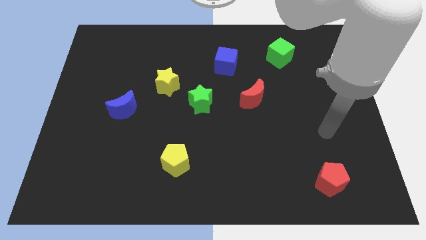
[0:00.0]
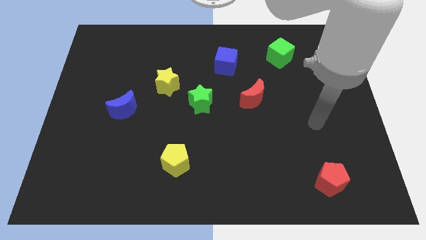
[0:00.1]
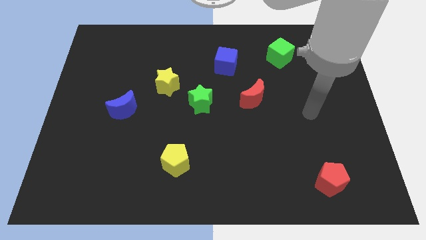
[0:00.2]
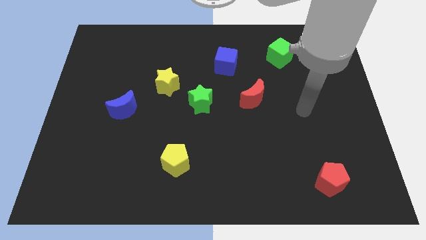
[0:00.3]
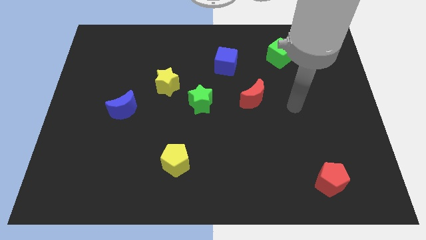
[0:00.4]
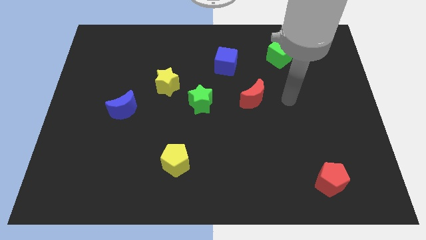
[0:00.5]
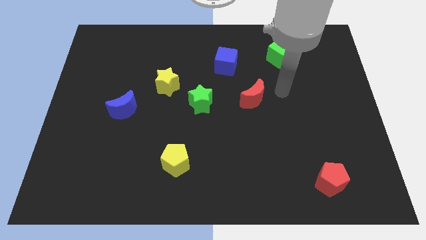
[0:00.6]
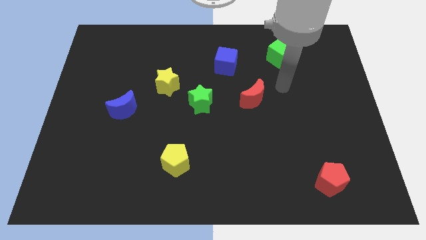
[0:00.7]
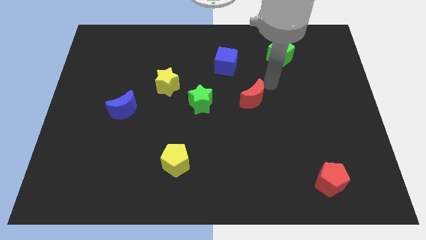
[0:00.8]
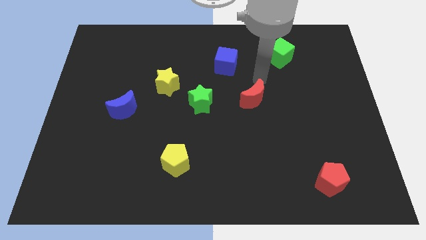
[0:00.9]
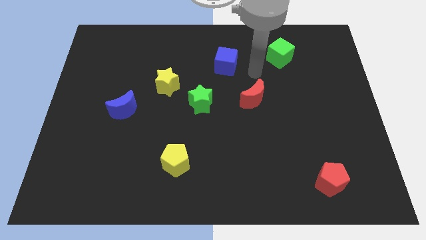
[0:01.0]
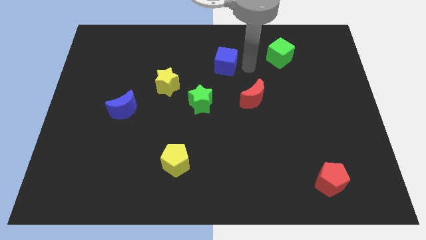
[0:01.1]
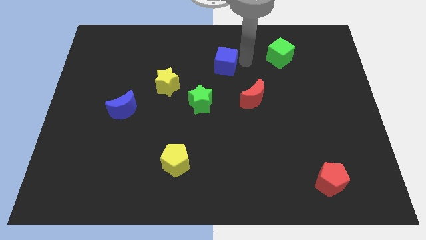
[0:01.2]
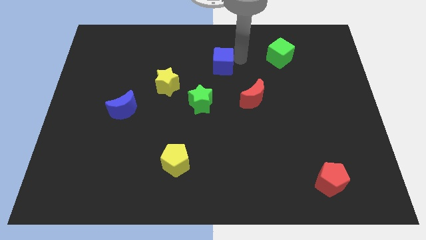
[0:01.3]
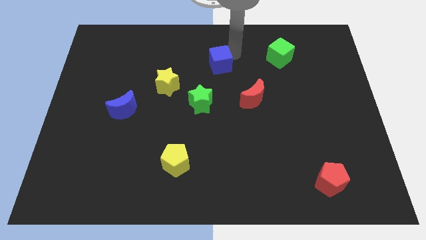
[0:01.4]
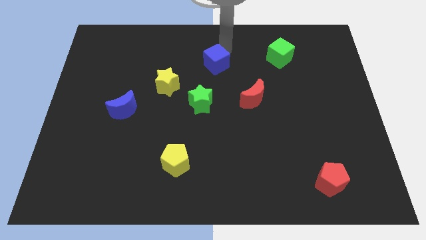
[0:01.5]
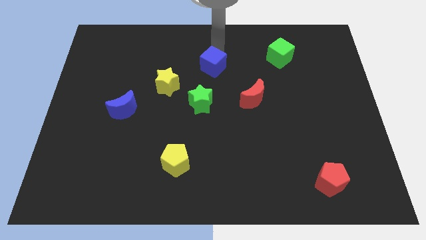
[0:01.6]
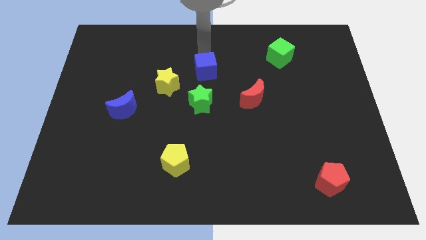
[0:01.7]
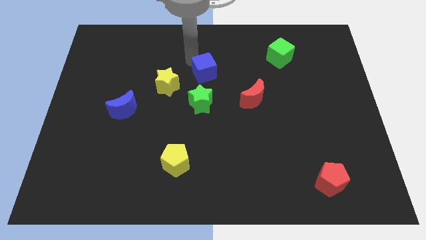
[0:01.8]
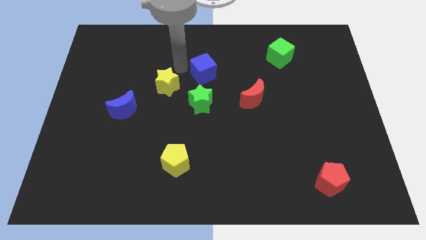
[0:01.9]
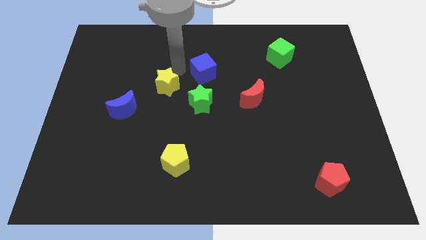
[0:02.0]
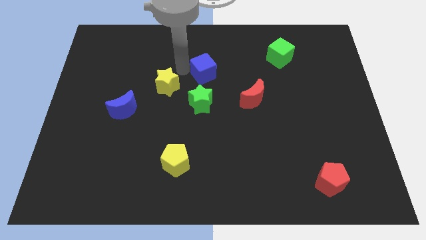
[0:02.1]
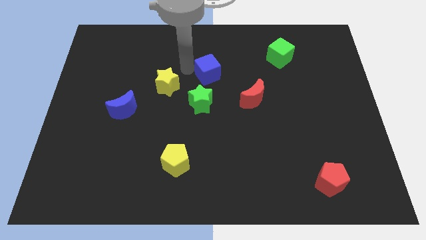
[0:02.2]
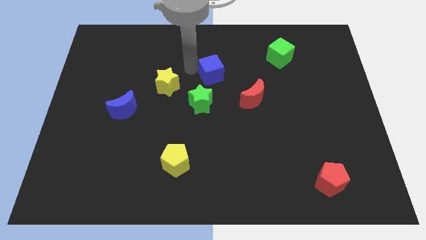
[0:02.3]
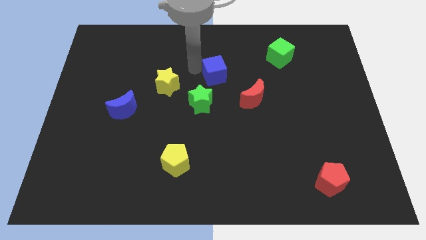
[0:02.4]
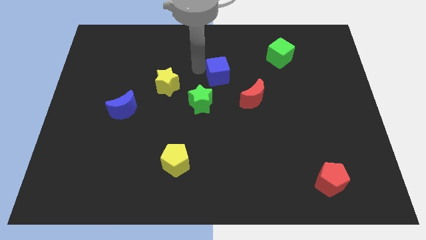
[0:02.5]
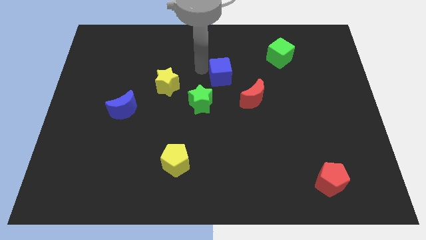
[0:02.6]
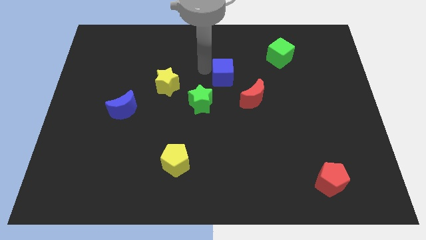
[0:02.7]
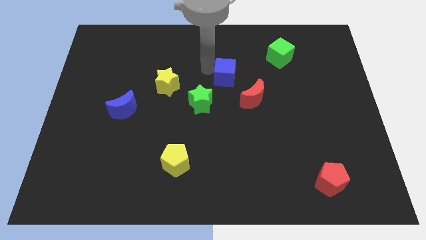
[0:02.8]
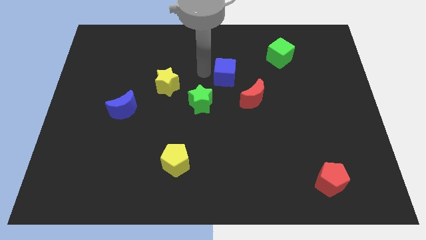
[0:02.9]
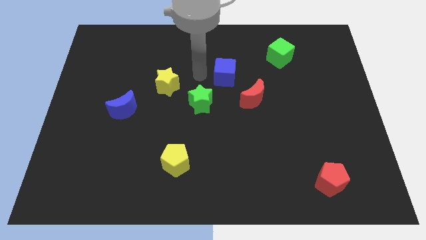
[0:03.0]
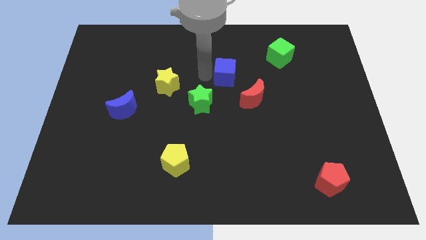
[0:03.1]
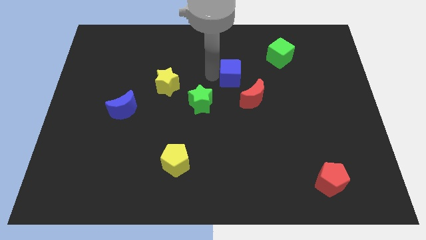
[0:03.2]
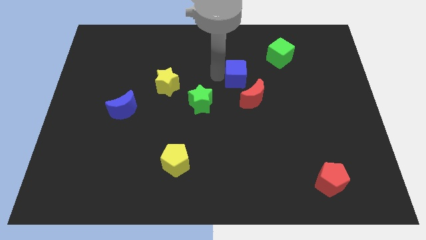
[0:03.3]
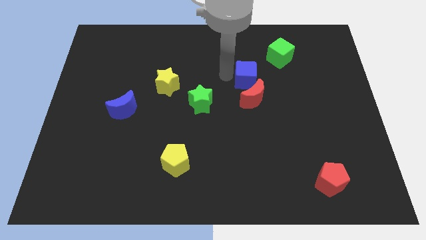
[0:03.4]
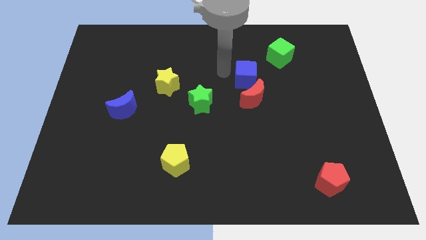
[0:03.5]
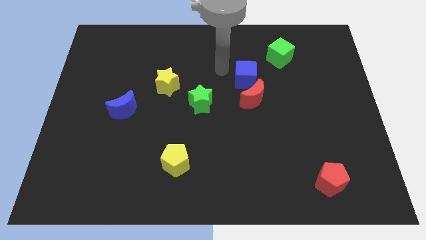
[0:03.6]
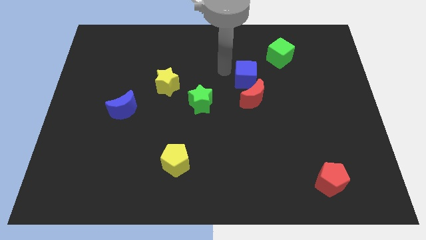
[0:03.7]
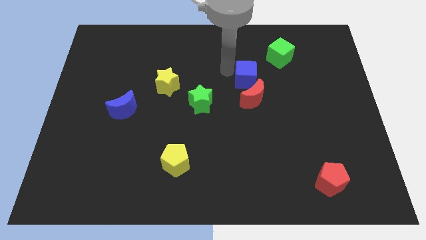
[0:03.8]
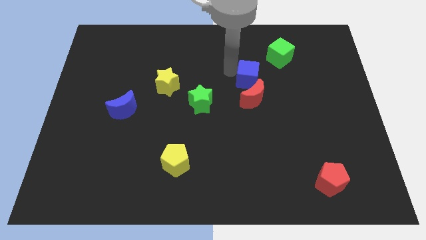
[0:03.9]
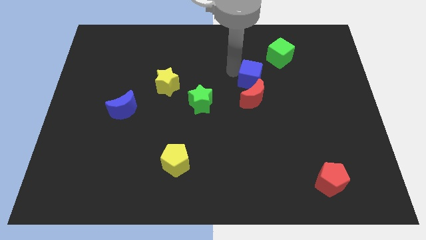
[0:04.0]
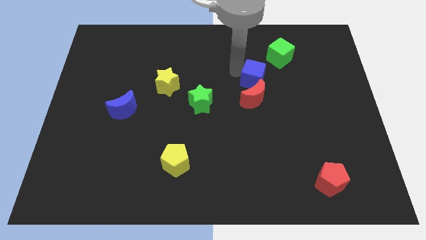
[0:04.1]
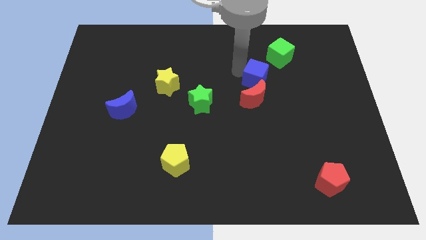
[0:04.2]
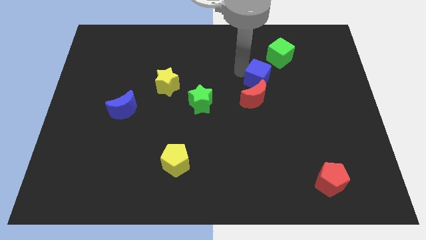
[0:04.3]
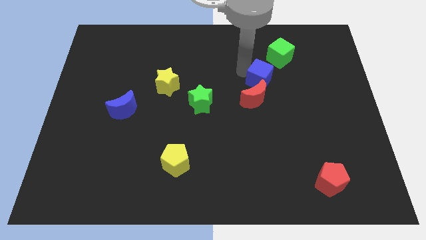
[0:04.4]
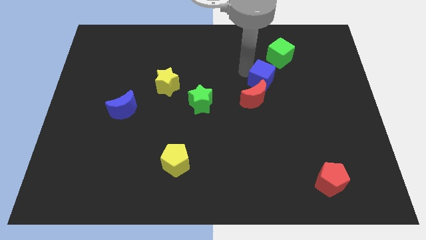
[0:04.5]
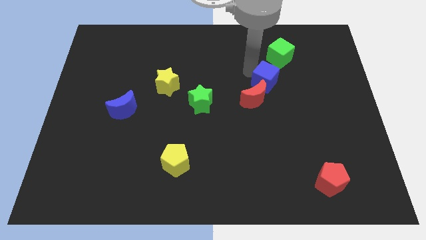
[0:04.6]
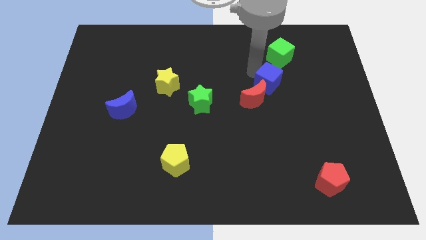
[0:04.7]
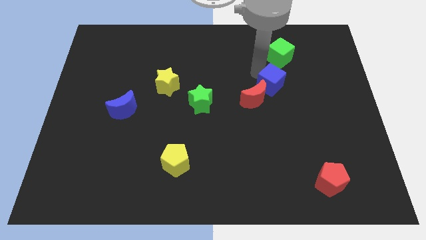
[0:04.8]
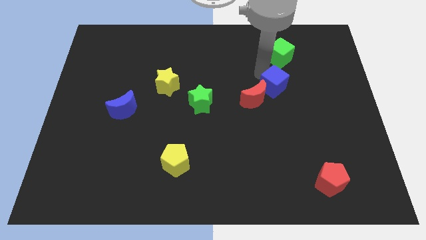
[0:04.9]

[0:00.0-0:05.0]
slide the blue cube to the right of the red moon

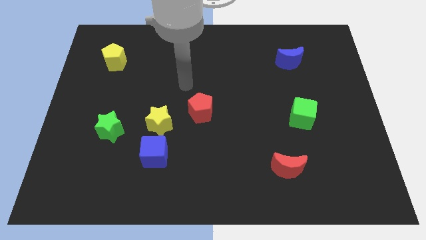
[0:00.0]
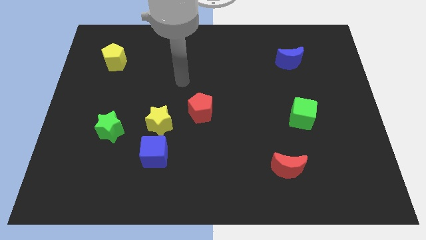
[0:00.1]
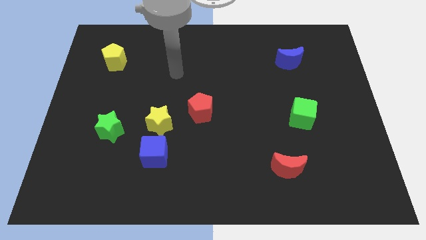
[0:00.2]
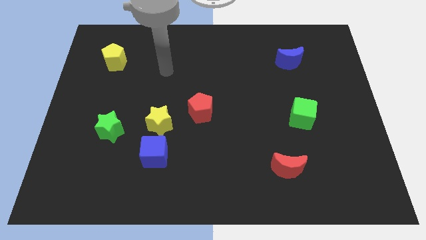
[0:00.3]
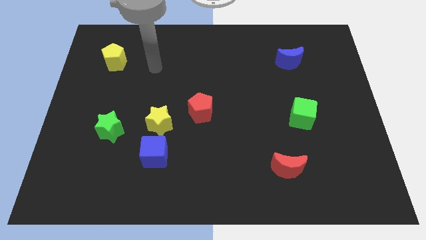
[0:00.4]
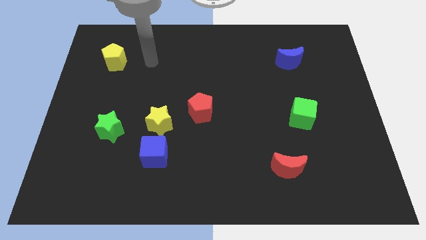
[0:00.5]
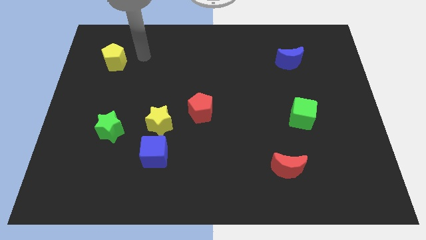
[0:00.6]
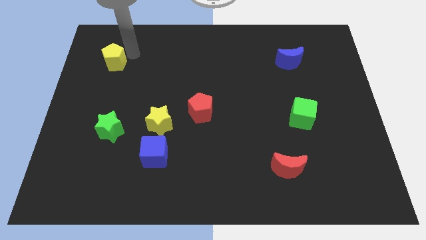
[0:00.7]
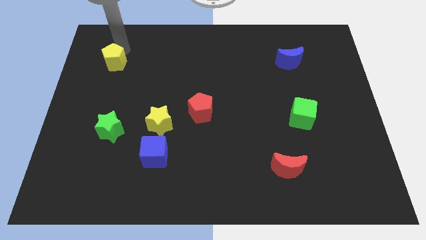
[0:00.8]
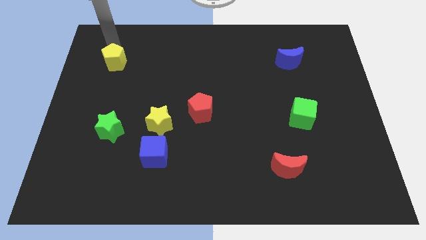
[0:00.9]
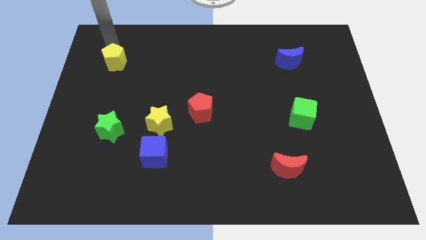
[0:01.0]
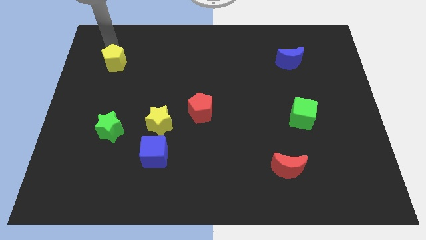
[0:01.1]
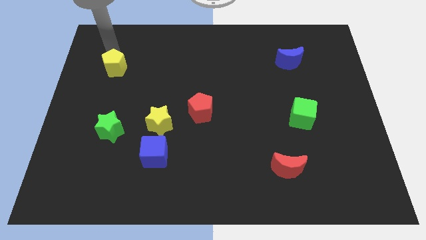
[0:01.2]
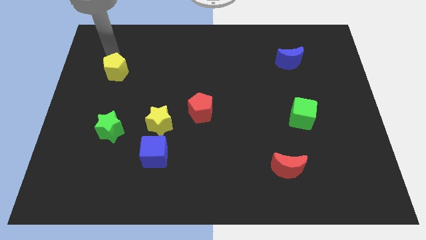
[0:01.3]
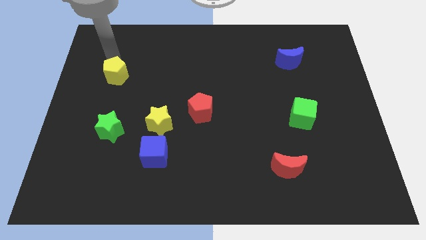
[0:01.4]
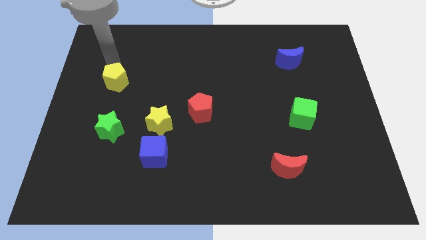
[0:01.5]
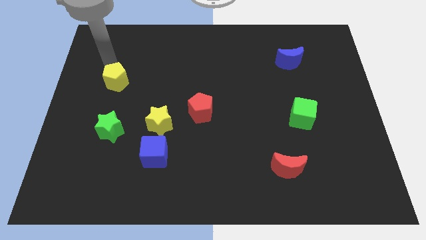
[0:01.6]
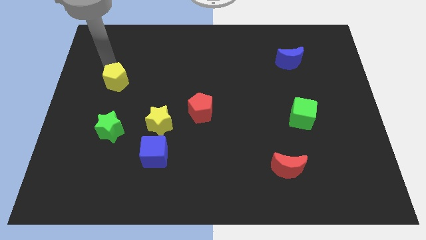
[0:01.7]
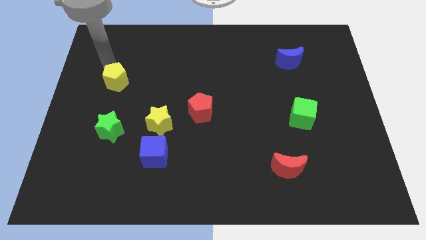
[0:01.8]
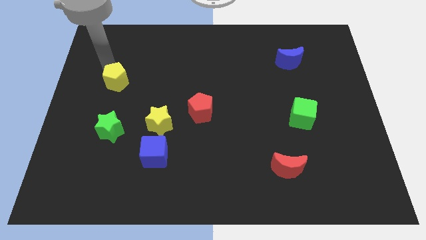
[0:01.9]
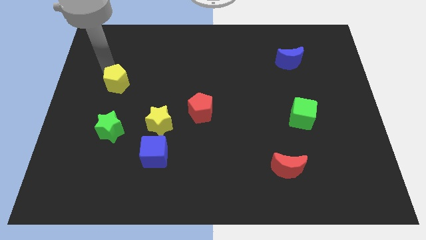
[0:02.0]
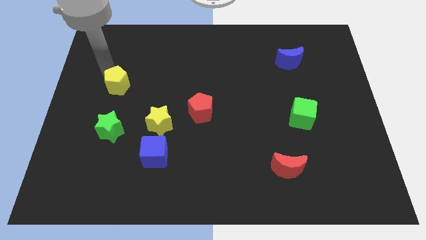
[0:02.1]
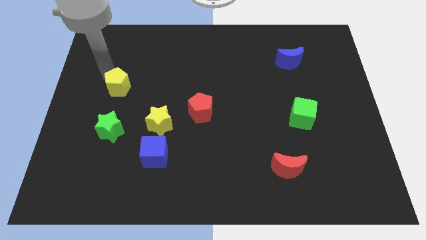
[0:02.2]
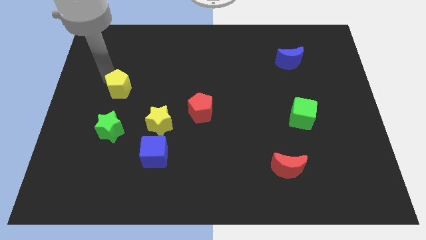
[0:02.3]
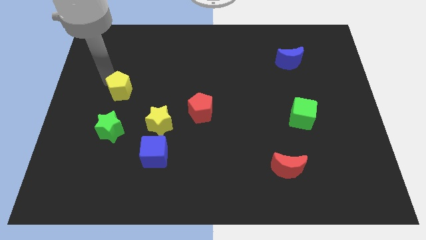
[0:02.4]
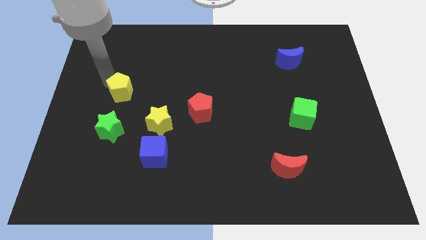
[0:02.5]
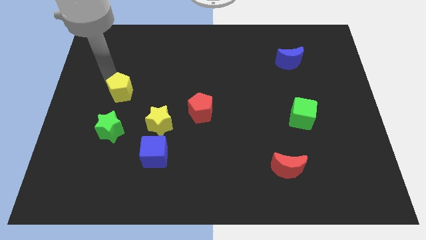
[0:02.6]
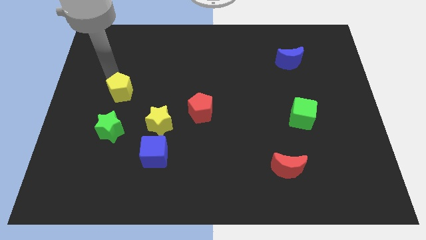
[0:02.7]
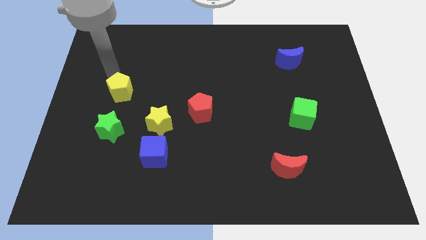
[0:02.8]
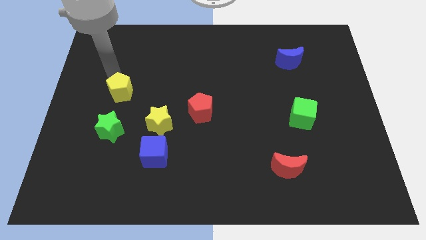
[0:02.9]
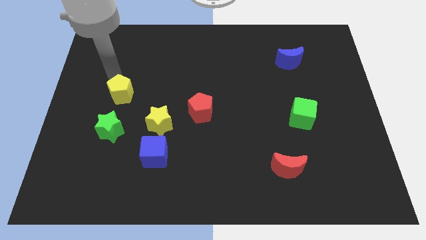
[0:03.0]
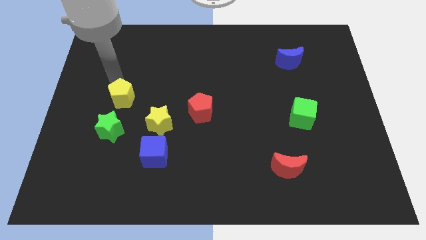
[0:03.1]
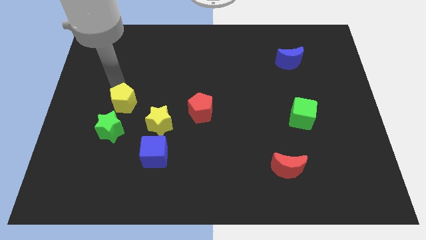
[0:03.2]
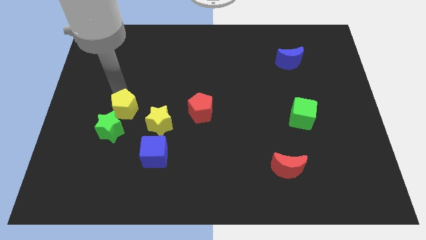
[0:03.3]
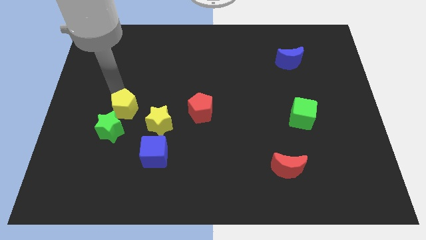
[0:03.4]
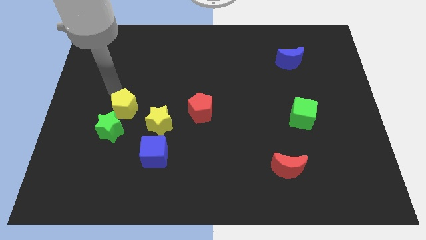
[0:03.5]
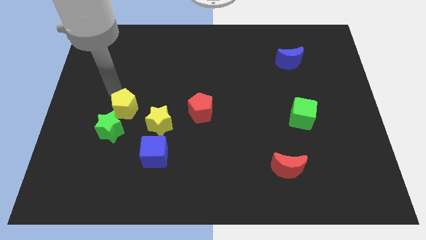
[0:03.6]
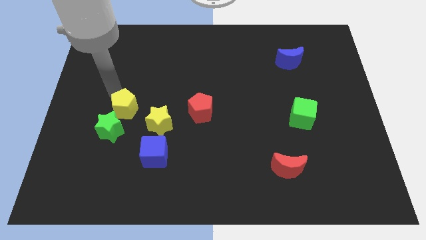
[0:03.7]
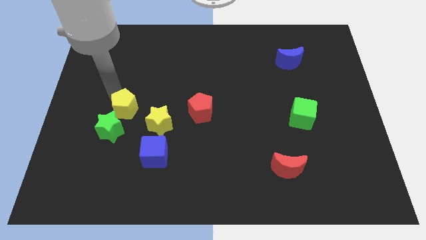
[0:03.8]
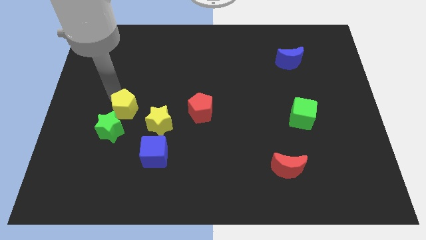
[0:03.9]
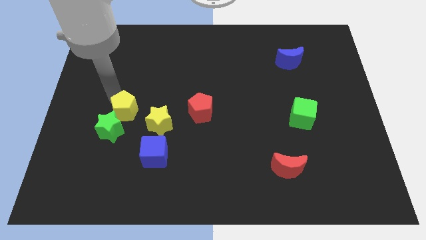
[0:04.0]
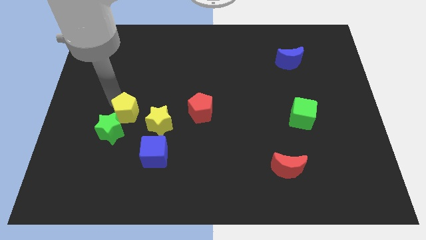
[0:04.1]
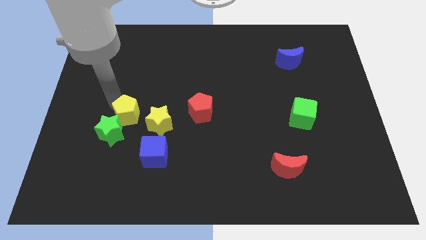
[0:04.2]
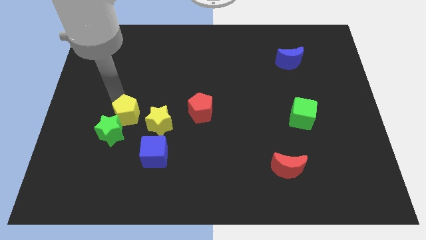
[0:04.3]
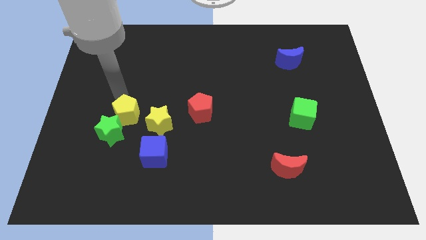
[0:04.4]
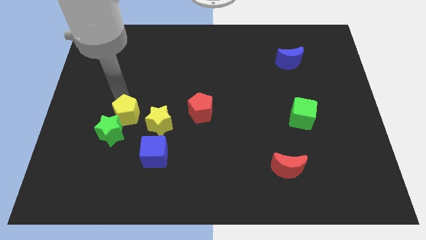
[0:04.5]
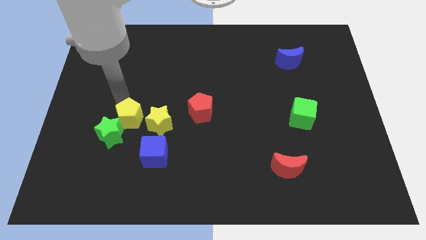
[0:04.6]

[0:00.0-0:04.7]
move the yellow pentagon to the top left side of the blue cube
